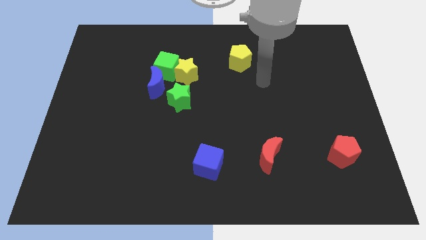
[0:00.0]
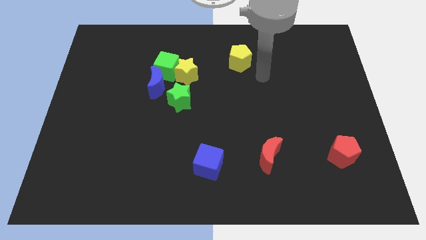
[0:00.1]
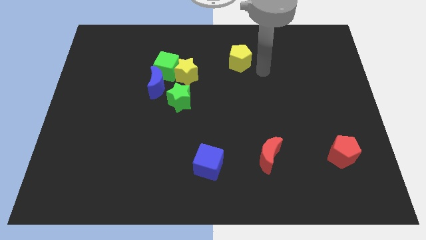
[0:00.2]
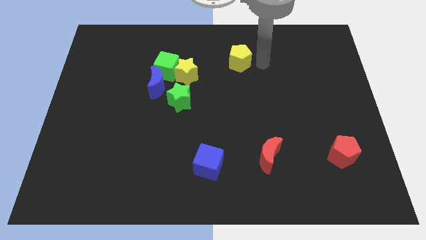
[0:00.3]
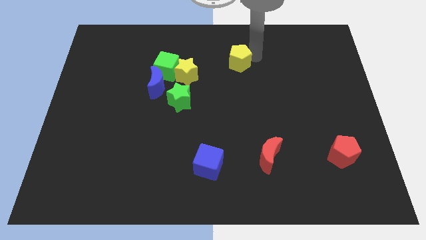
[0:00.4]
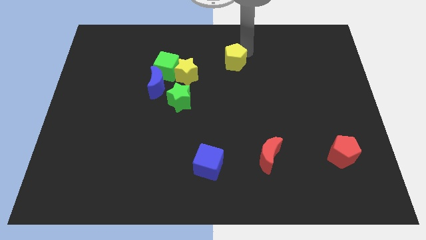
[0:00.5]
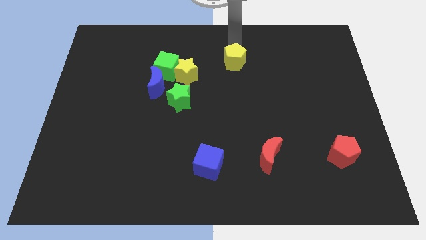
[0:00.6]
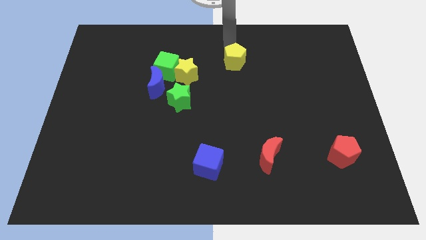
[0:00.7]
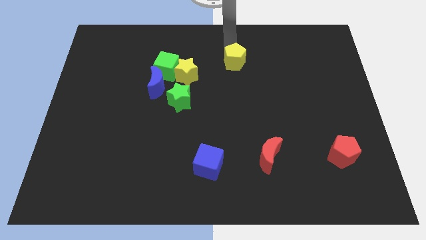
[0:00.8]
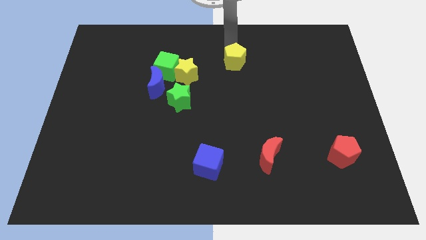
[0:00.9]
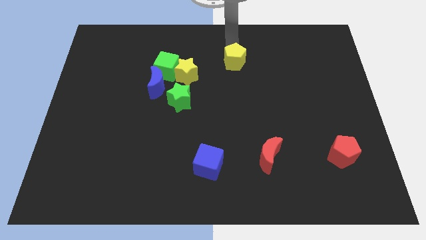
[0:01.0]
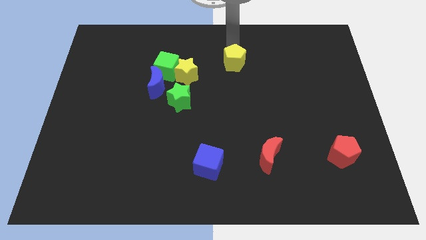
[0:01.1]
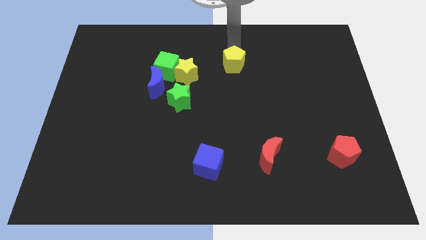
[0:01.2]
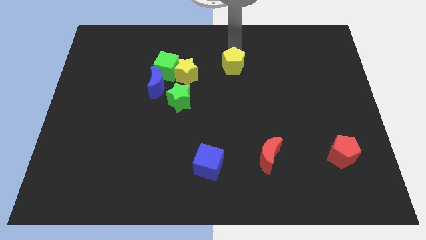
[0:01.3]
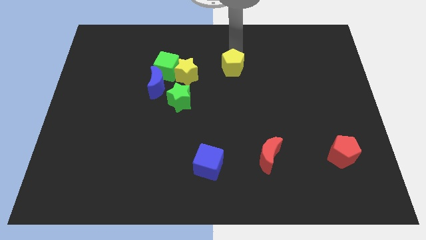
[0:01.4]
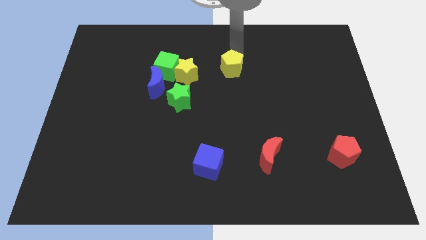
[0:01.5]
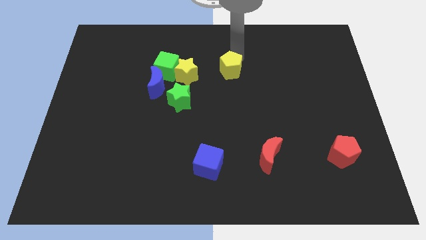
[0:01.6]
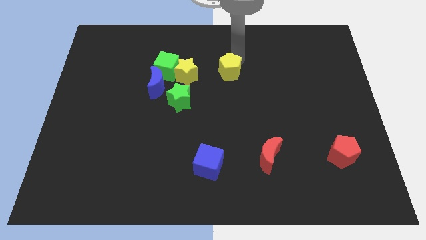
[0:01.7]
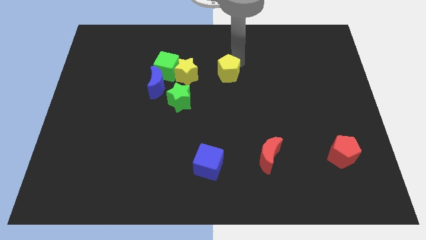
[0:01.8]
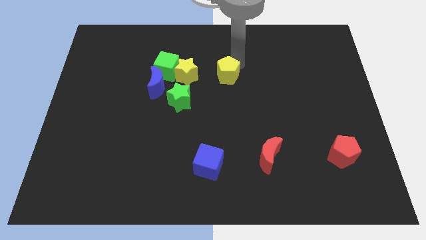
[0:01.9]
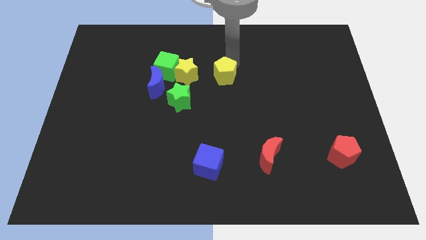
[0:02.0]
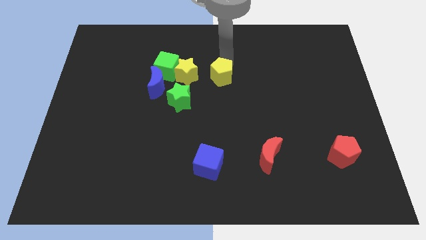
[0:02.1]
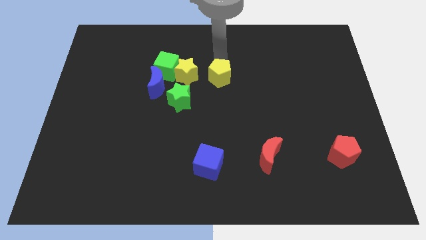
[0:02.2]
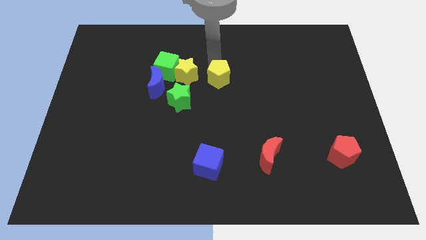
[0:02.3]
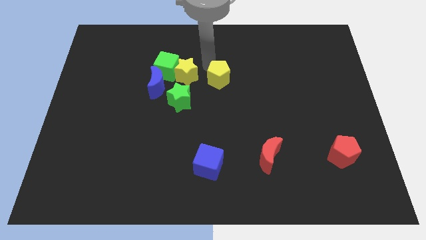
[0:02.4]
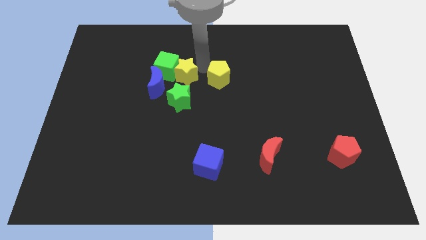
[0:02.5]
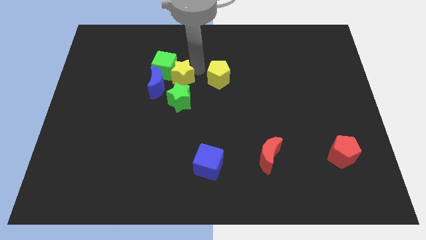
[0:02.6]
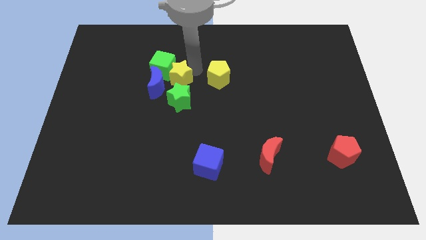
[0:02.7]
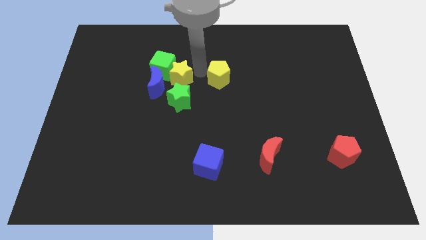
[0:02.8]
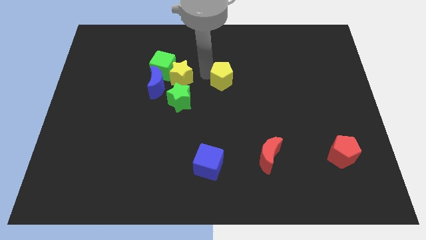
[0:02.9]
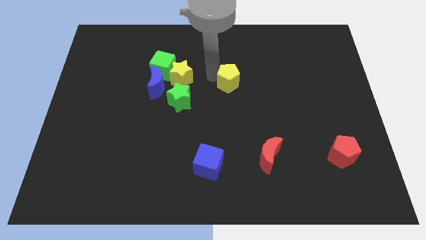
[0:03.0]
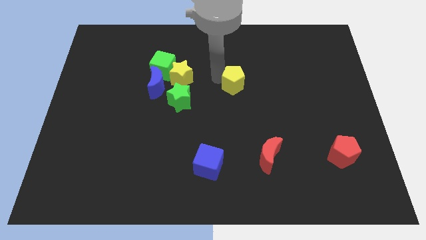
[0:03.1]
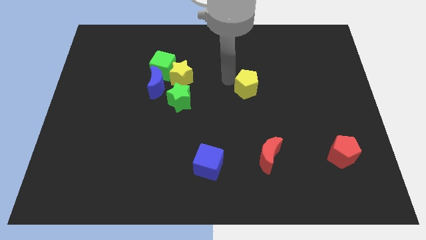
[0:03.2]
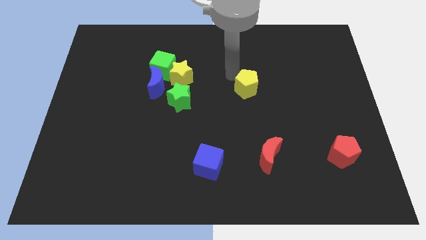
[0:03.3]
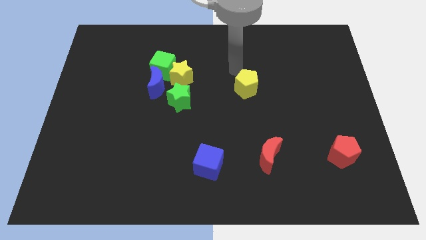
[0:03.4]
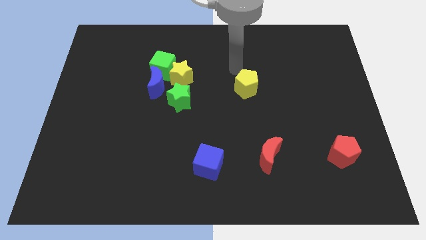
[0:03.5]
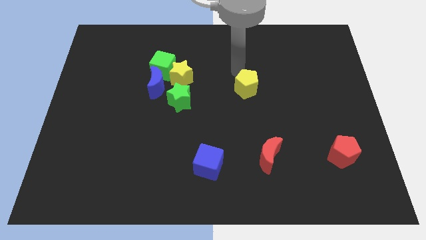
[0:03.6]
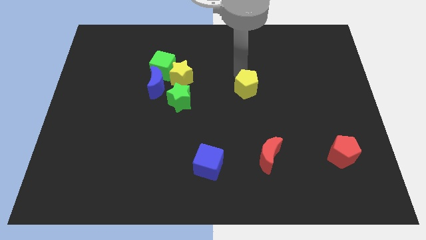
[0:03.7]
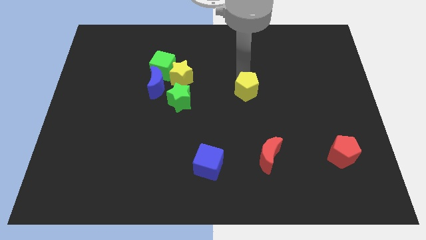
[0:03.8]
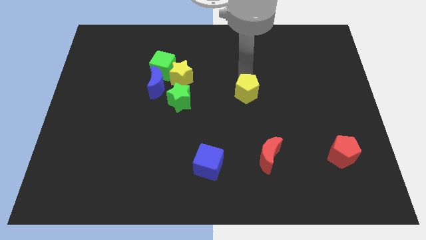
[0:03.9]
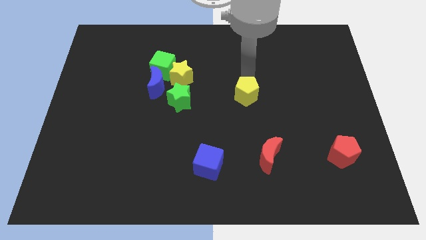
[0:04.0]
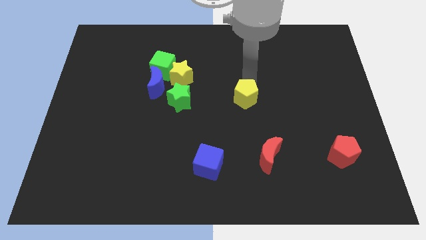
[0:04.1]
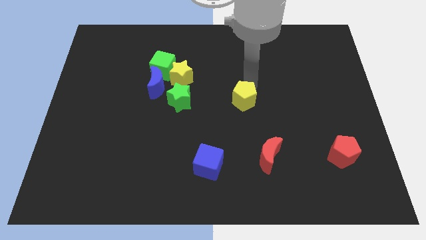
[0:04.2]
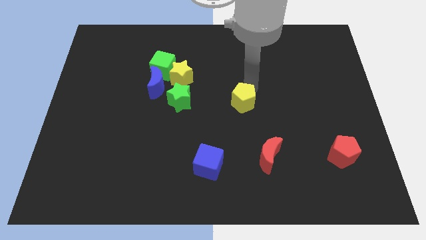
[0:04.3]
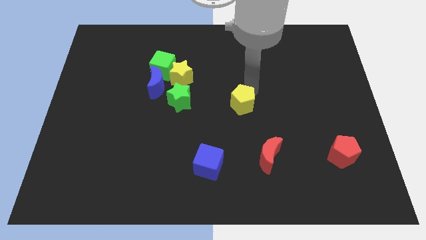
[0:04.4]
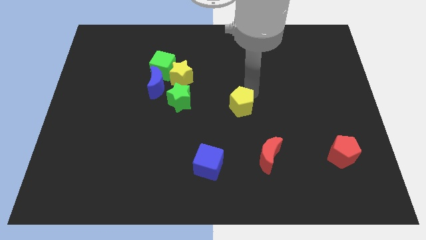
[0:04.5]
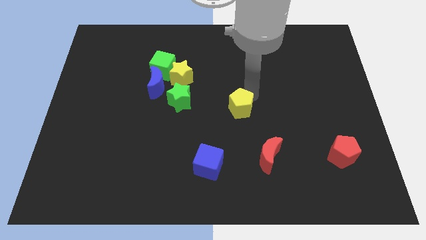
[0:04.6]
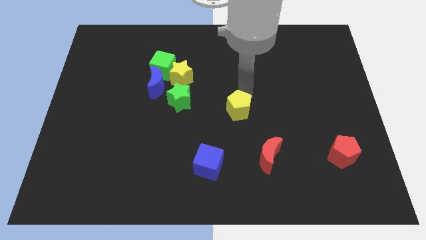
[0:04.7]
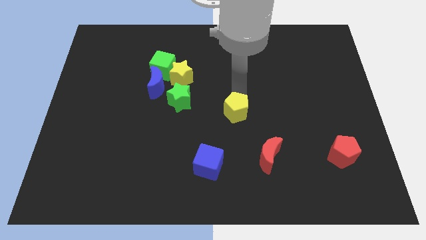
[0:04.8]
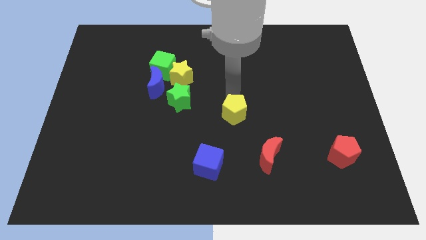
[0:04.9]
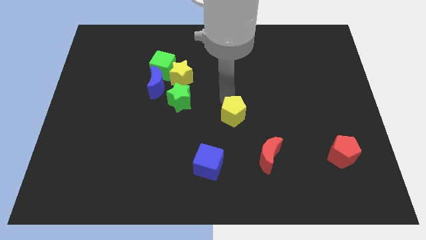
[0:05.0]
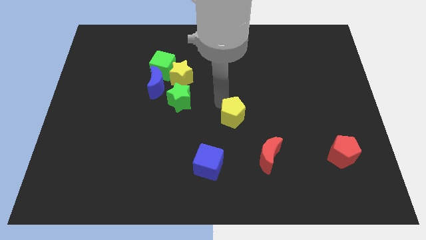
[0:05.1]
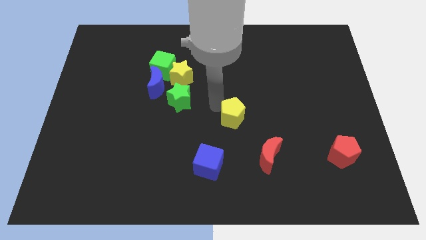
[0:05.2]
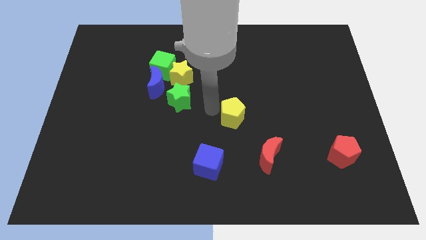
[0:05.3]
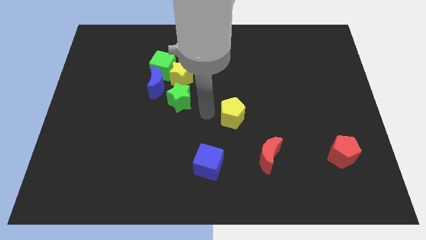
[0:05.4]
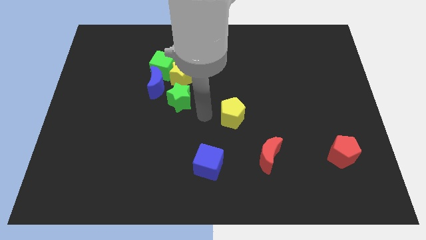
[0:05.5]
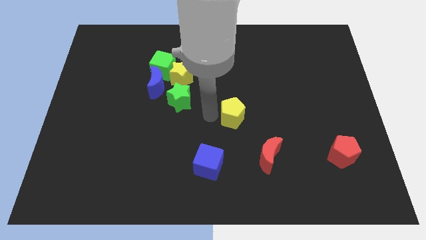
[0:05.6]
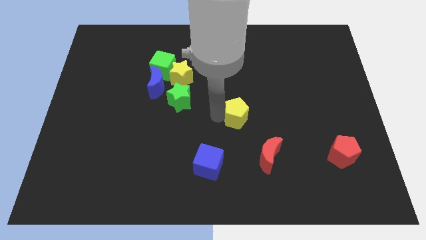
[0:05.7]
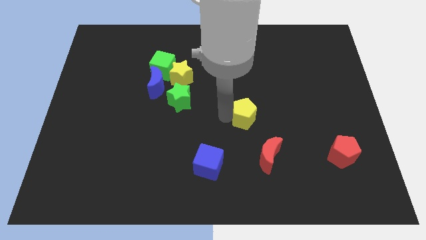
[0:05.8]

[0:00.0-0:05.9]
move the yellow pentagon to the top side of the red moon

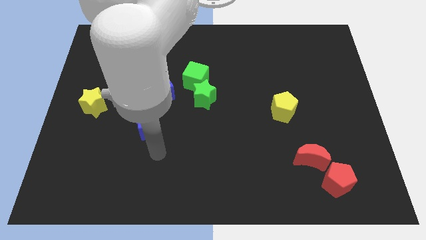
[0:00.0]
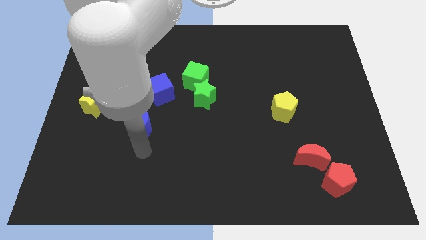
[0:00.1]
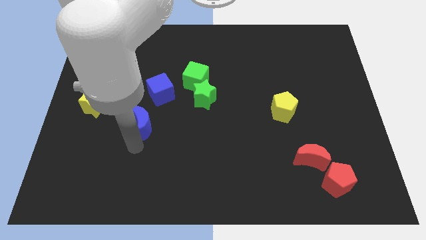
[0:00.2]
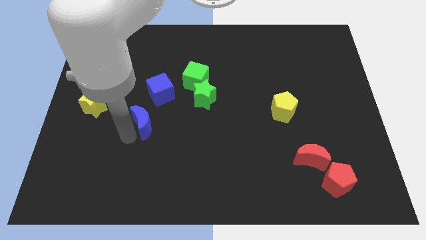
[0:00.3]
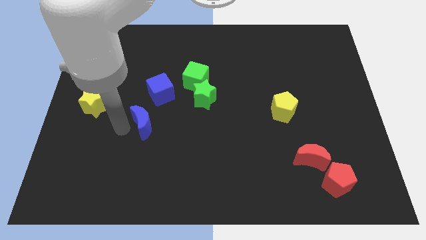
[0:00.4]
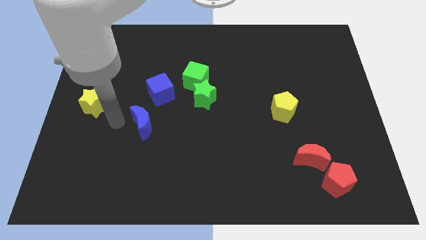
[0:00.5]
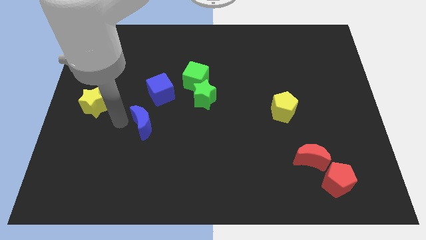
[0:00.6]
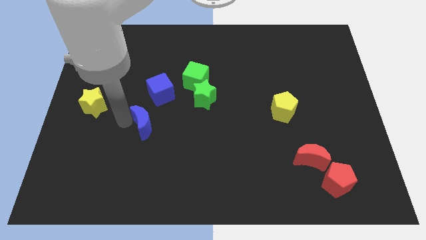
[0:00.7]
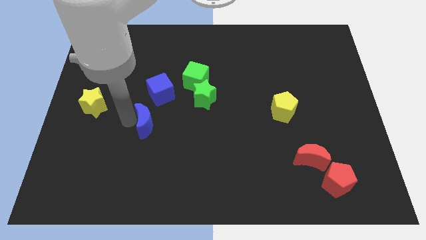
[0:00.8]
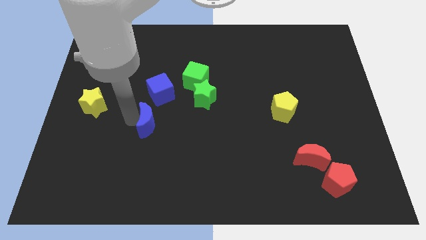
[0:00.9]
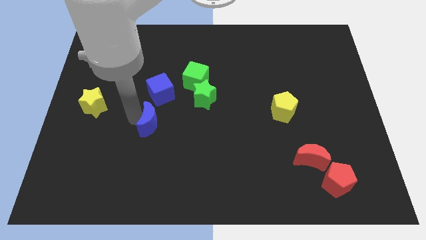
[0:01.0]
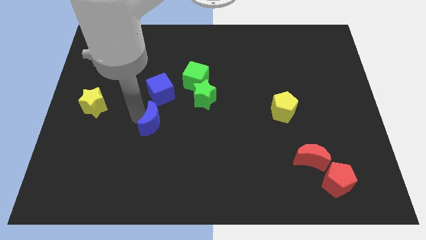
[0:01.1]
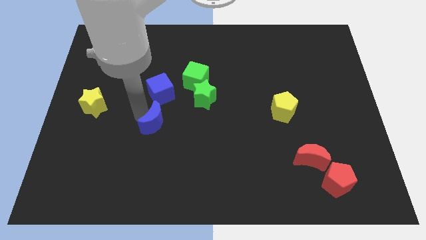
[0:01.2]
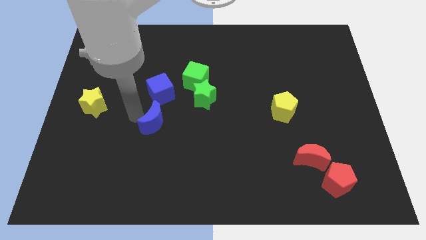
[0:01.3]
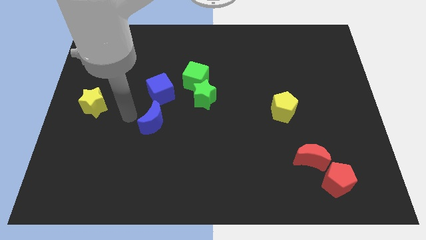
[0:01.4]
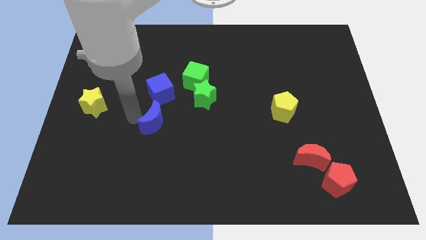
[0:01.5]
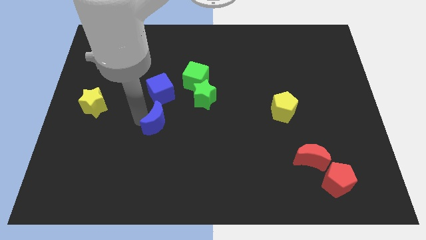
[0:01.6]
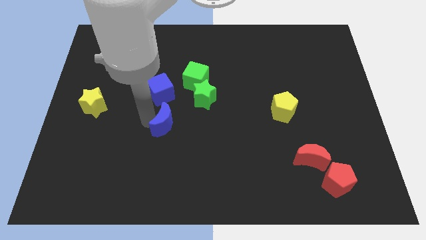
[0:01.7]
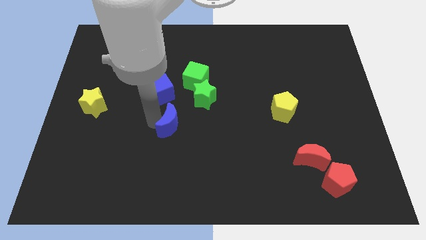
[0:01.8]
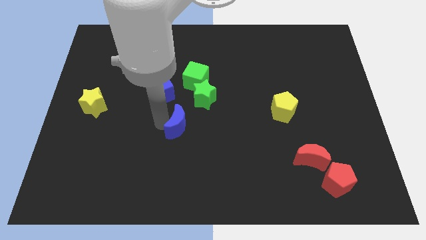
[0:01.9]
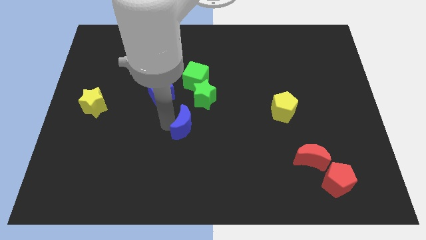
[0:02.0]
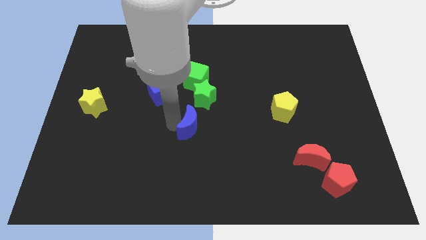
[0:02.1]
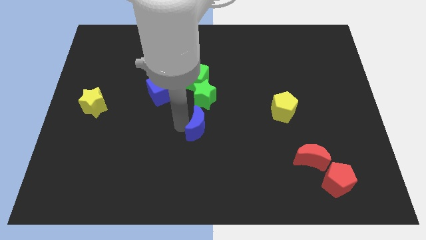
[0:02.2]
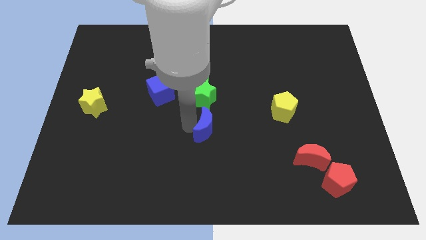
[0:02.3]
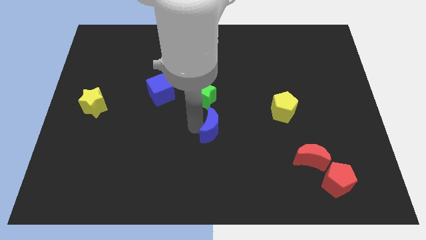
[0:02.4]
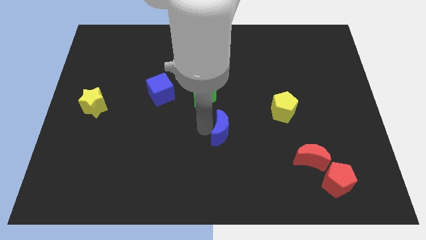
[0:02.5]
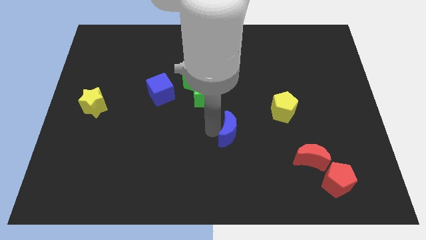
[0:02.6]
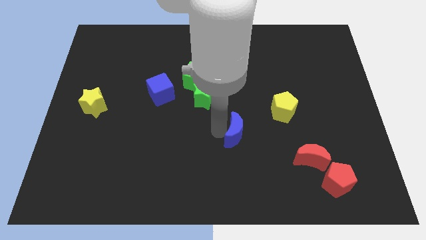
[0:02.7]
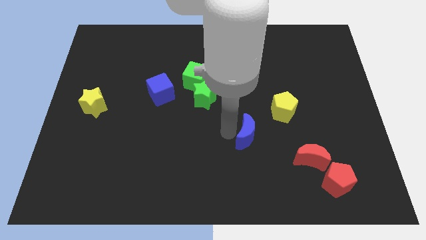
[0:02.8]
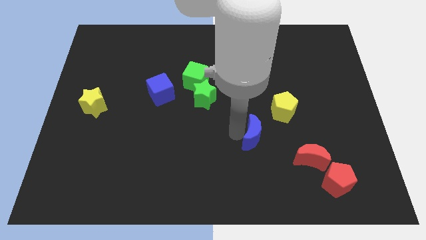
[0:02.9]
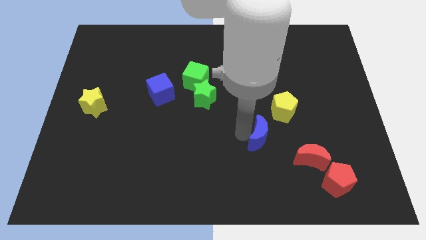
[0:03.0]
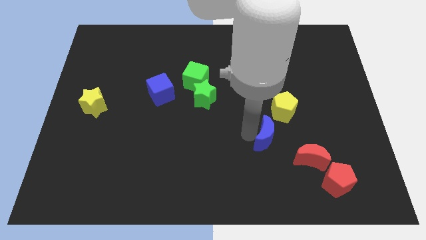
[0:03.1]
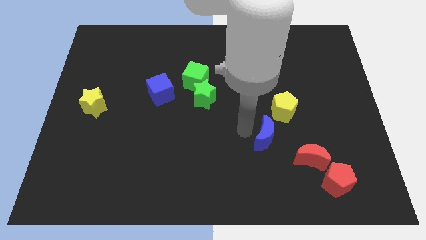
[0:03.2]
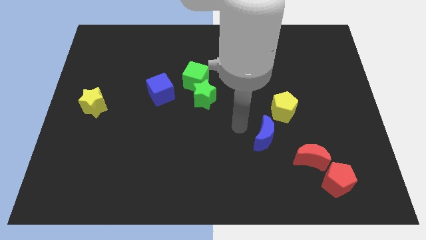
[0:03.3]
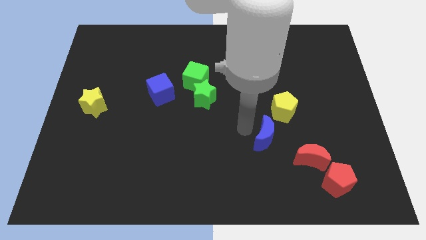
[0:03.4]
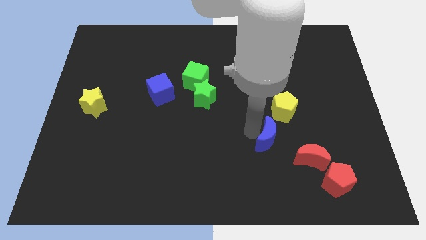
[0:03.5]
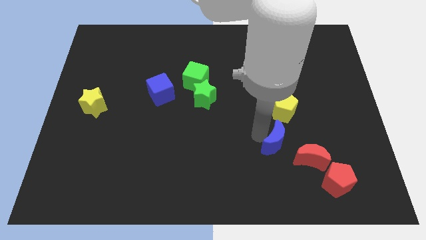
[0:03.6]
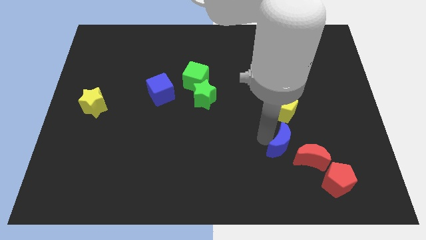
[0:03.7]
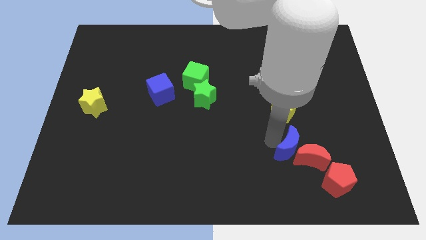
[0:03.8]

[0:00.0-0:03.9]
put the blue moon to the top left of the red pentagon
